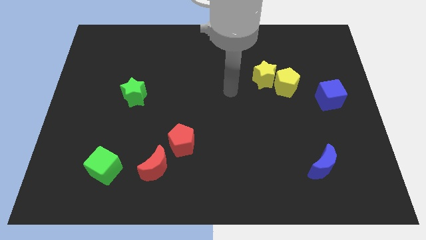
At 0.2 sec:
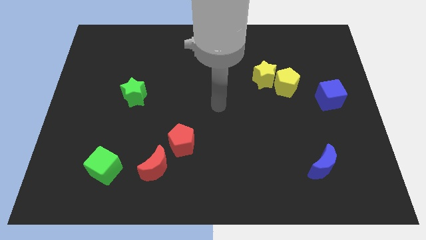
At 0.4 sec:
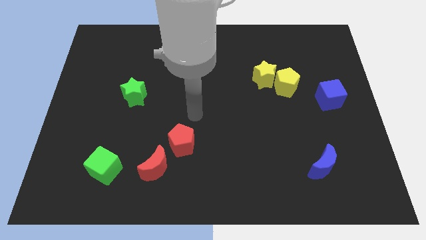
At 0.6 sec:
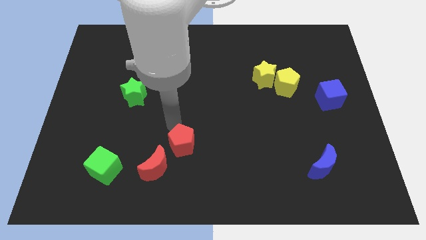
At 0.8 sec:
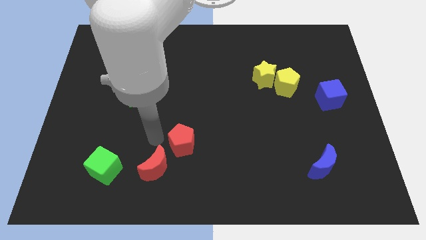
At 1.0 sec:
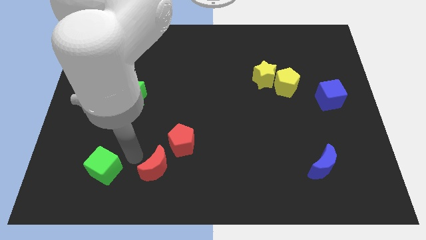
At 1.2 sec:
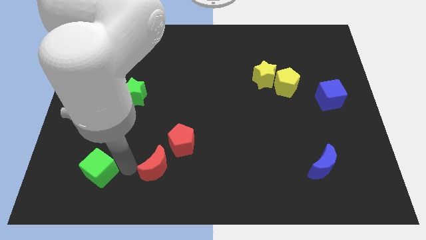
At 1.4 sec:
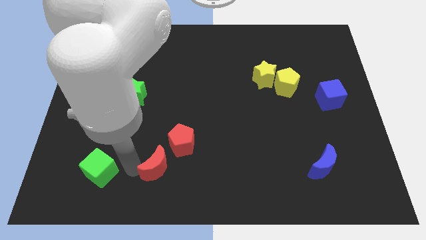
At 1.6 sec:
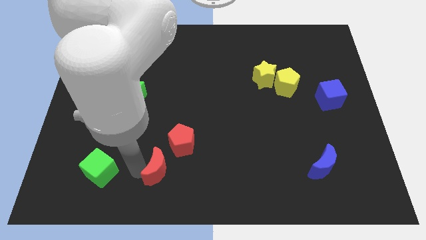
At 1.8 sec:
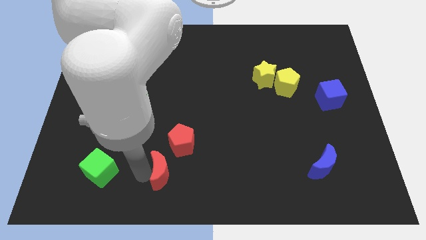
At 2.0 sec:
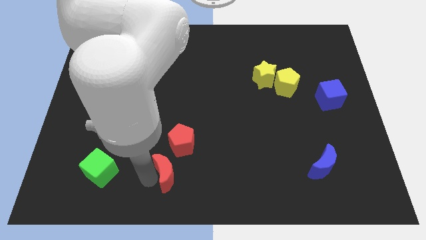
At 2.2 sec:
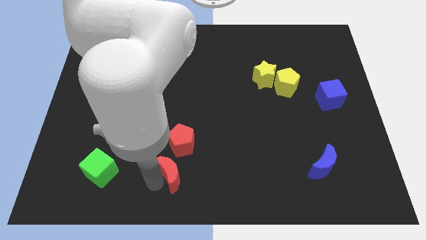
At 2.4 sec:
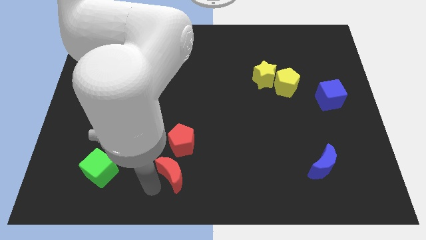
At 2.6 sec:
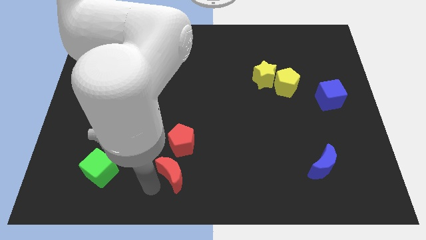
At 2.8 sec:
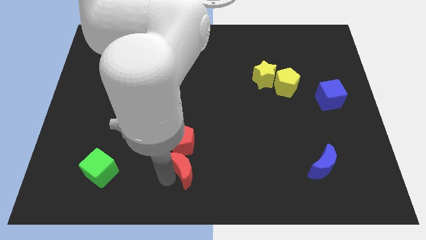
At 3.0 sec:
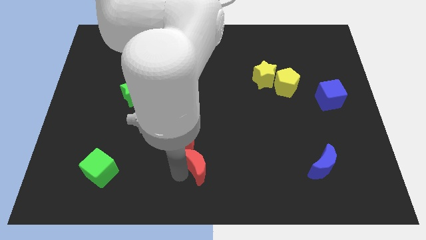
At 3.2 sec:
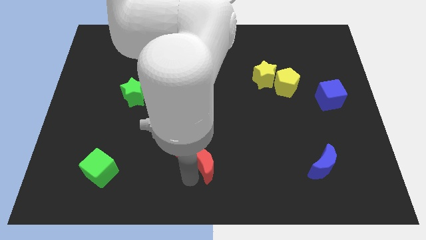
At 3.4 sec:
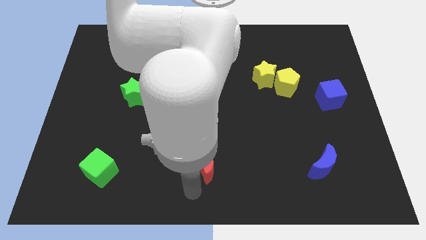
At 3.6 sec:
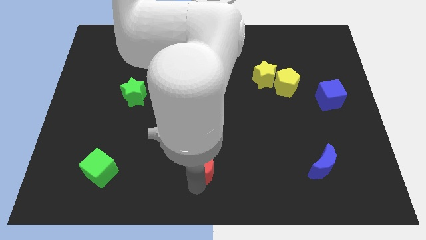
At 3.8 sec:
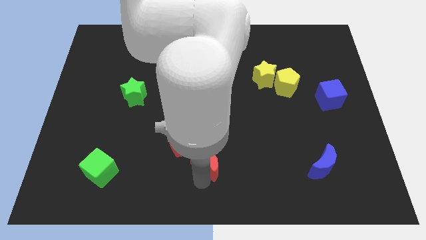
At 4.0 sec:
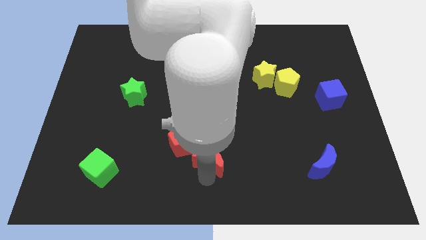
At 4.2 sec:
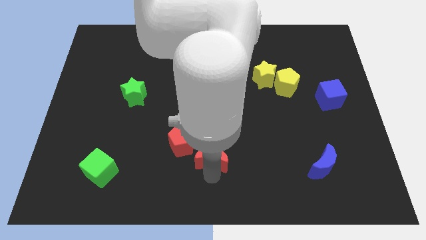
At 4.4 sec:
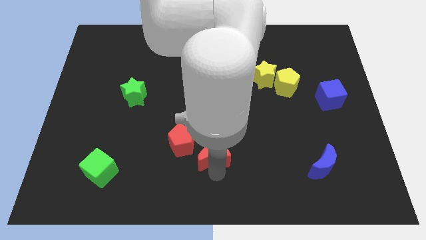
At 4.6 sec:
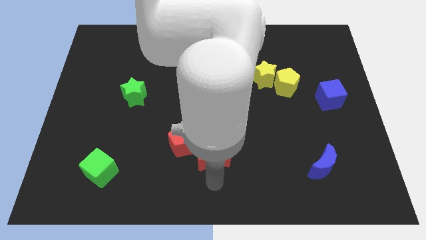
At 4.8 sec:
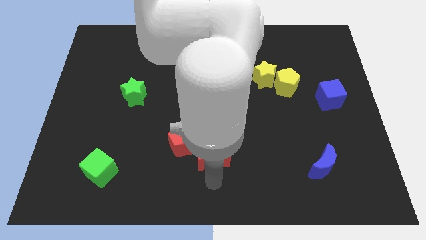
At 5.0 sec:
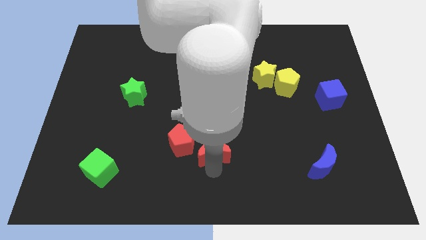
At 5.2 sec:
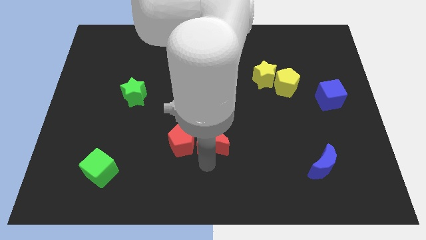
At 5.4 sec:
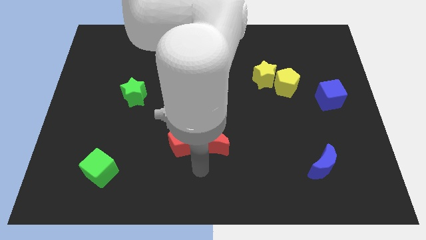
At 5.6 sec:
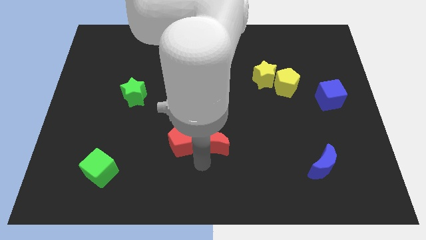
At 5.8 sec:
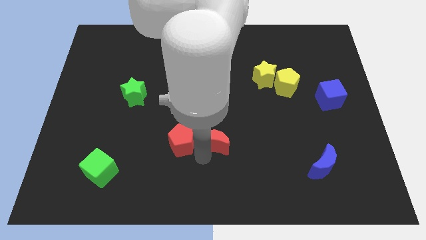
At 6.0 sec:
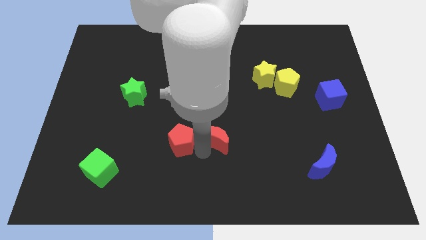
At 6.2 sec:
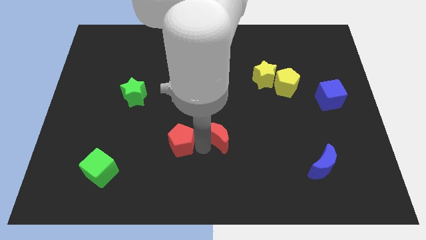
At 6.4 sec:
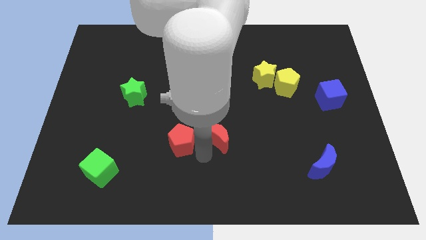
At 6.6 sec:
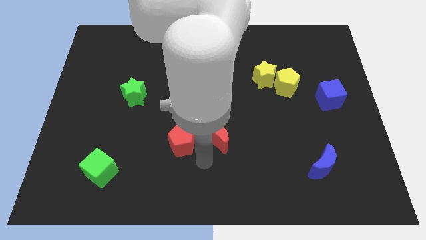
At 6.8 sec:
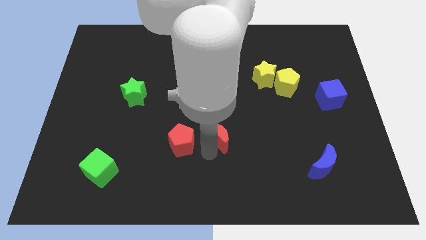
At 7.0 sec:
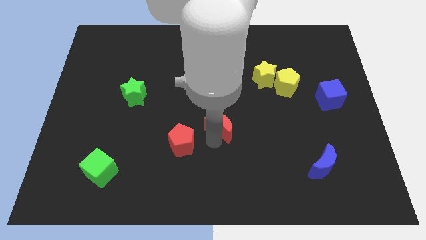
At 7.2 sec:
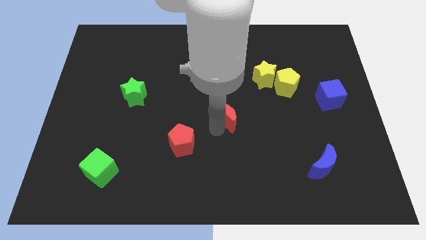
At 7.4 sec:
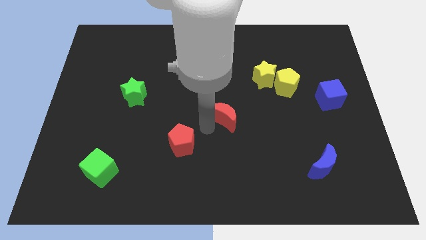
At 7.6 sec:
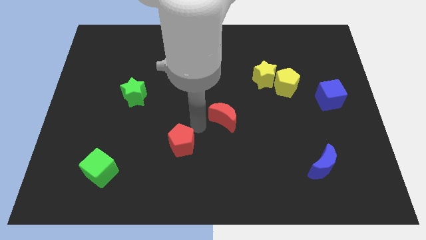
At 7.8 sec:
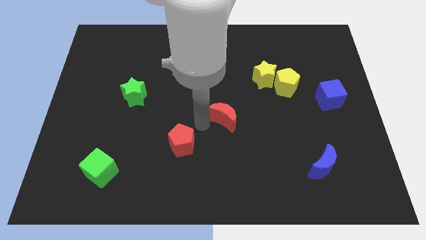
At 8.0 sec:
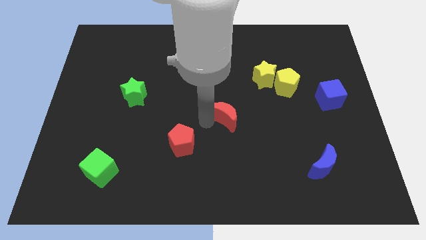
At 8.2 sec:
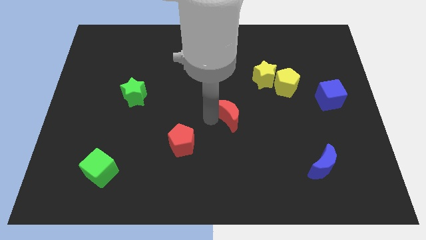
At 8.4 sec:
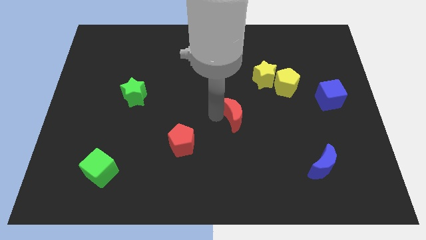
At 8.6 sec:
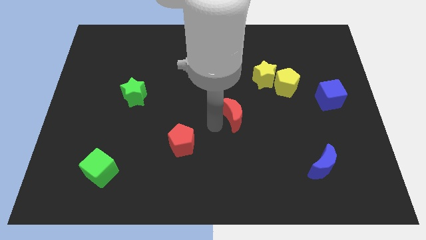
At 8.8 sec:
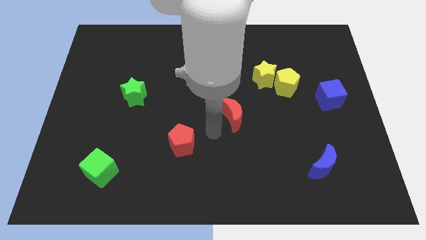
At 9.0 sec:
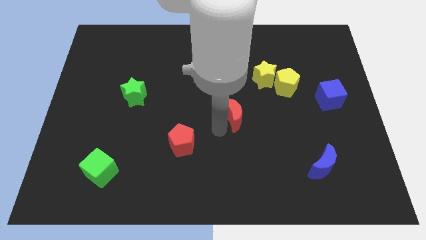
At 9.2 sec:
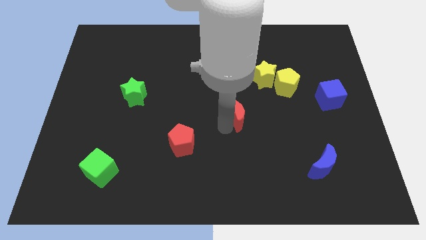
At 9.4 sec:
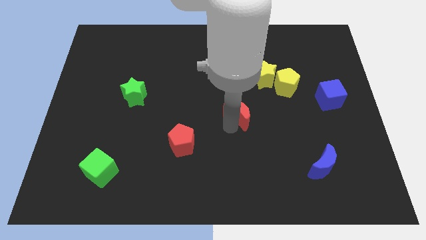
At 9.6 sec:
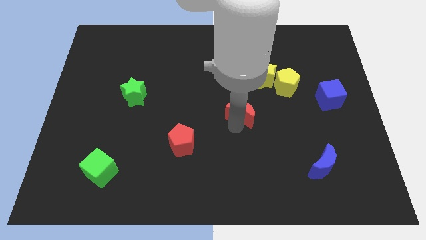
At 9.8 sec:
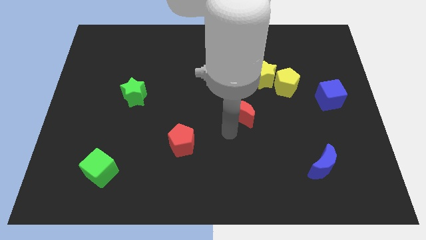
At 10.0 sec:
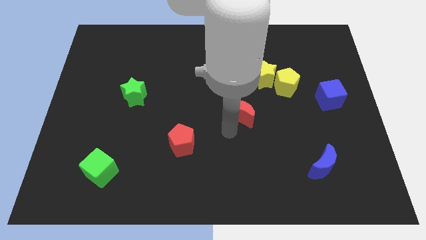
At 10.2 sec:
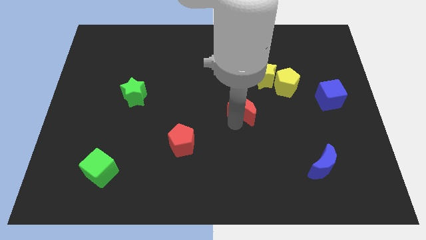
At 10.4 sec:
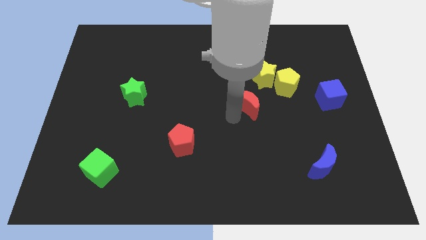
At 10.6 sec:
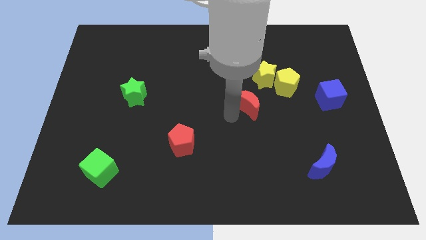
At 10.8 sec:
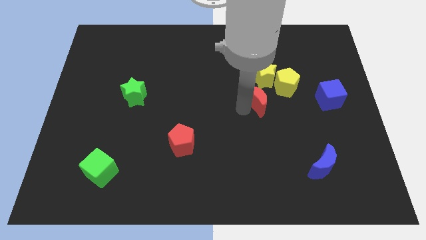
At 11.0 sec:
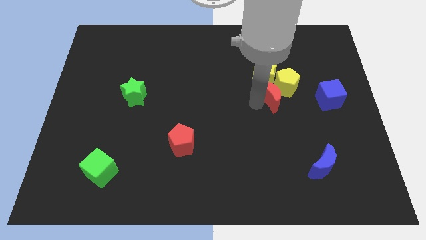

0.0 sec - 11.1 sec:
slide the red moon close to the yellow pentagon

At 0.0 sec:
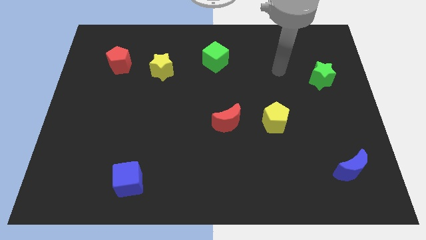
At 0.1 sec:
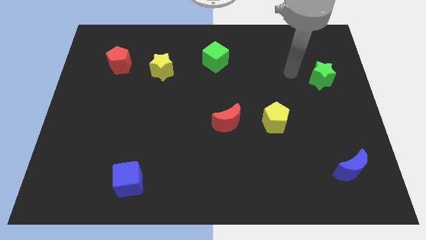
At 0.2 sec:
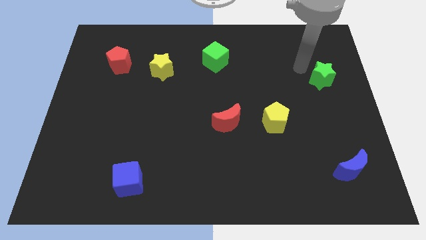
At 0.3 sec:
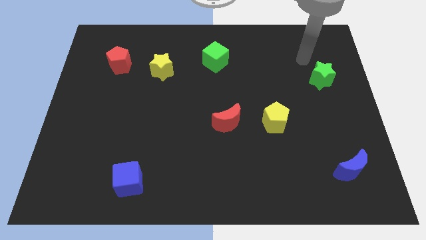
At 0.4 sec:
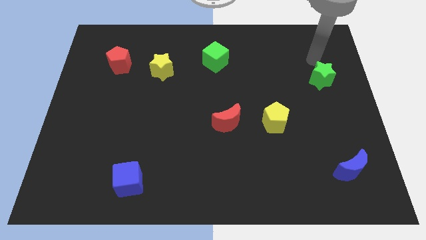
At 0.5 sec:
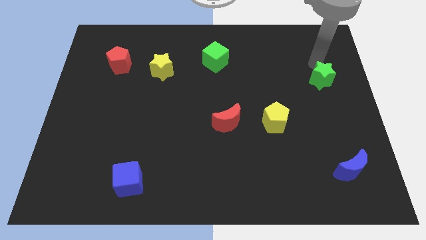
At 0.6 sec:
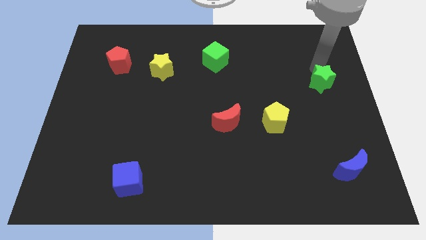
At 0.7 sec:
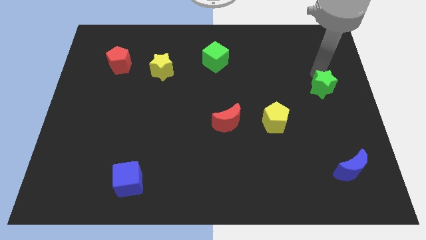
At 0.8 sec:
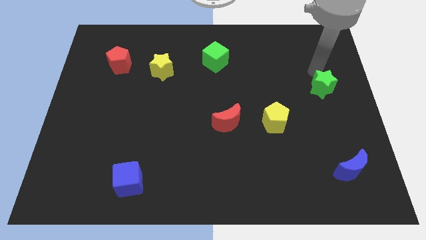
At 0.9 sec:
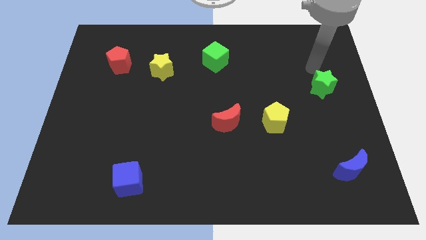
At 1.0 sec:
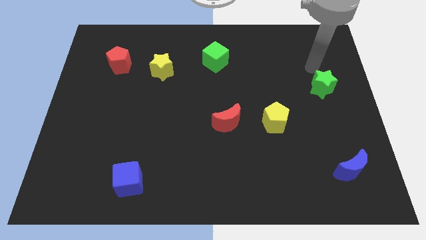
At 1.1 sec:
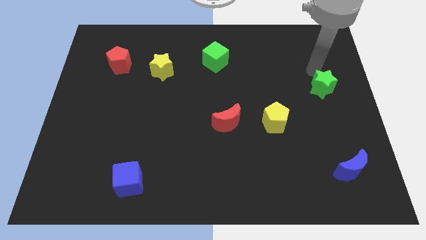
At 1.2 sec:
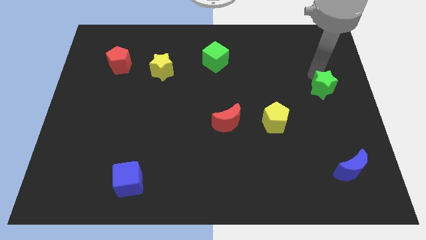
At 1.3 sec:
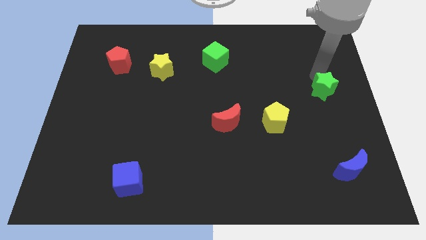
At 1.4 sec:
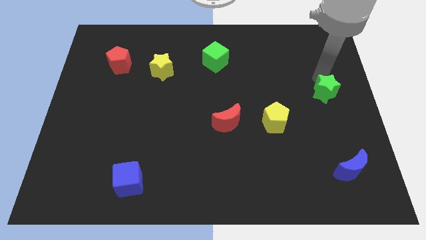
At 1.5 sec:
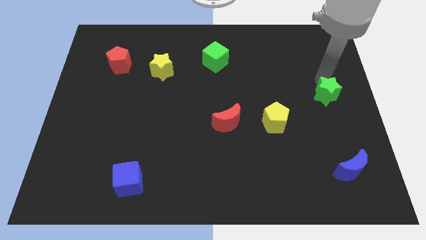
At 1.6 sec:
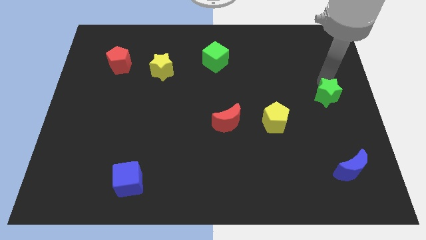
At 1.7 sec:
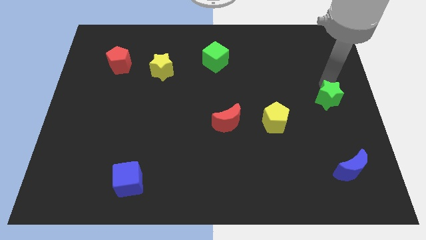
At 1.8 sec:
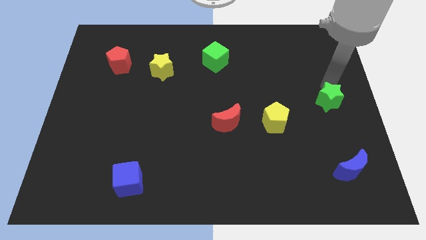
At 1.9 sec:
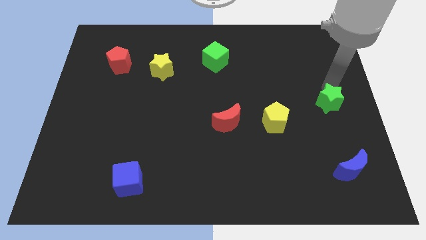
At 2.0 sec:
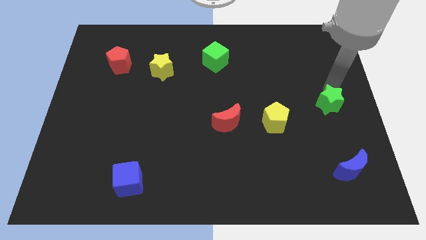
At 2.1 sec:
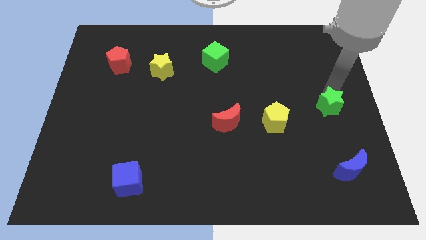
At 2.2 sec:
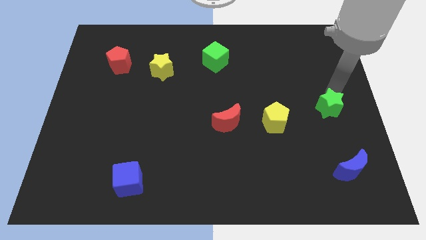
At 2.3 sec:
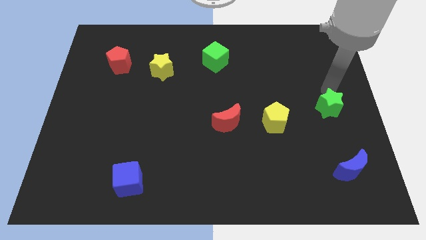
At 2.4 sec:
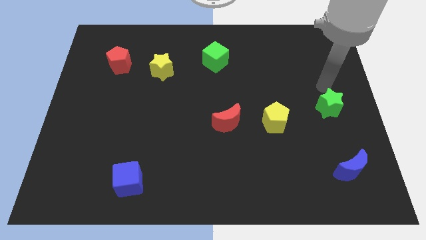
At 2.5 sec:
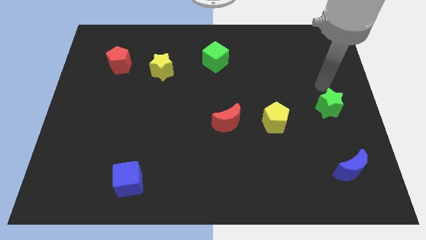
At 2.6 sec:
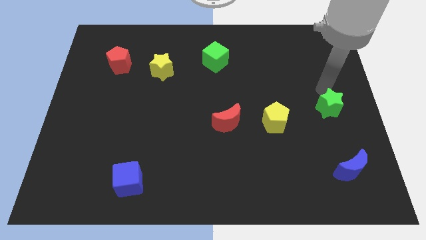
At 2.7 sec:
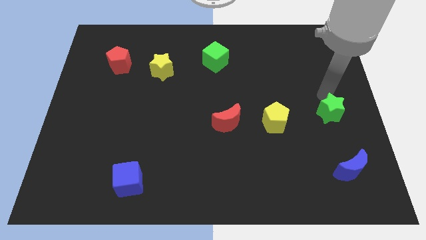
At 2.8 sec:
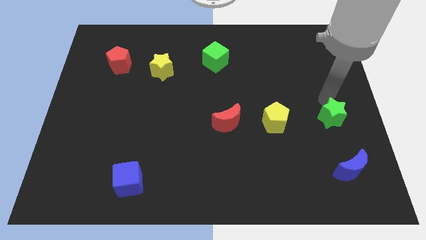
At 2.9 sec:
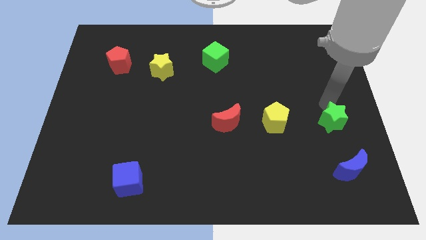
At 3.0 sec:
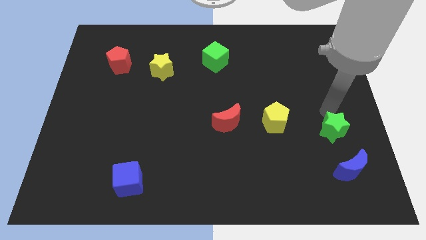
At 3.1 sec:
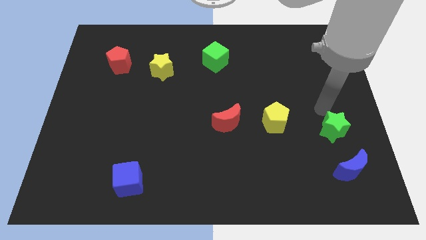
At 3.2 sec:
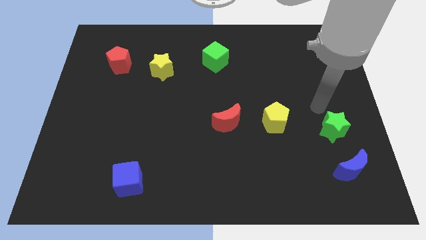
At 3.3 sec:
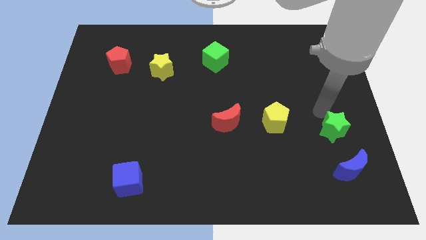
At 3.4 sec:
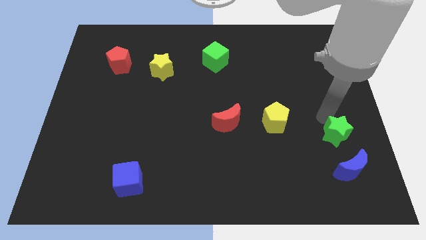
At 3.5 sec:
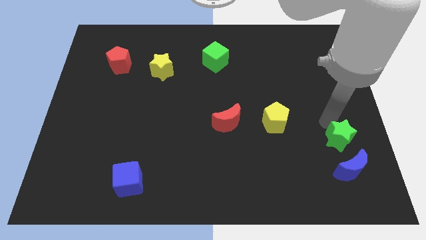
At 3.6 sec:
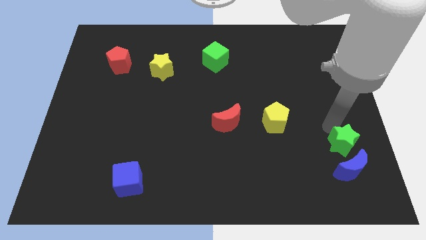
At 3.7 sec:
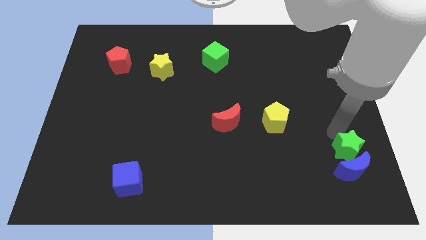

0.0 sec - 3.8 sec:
push the green star to the blue moon
